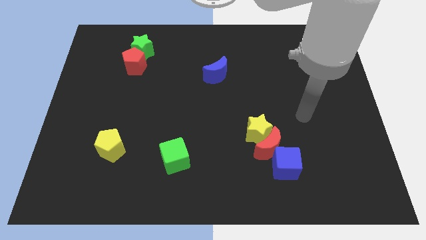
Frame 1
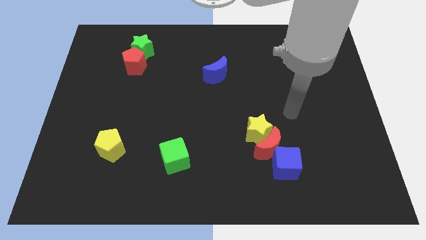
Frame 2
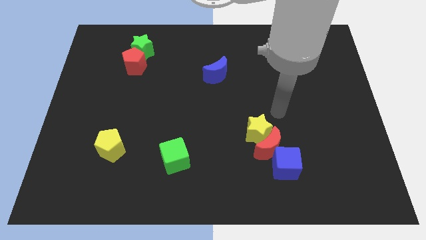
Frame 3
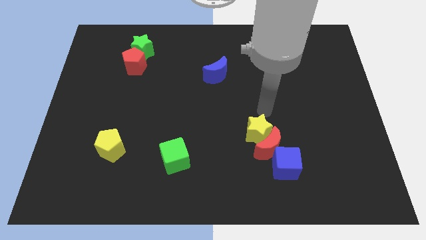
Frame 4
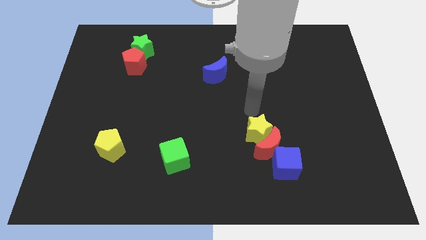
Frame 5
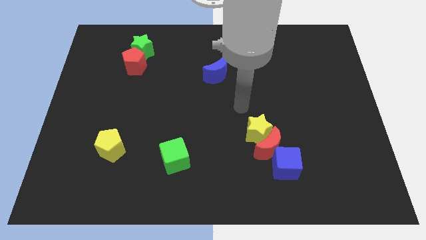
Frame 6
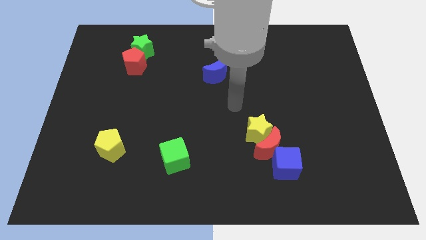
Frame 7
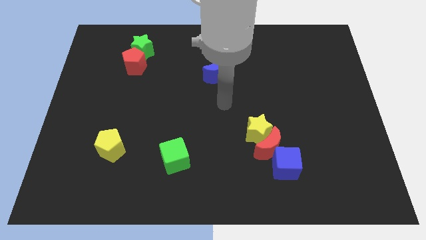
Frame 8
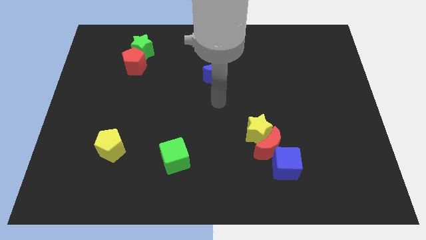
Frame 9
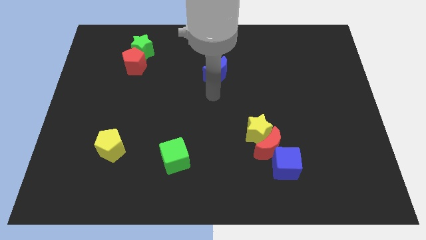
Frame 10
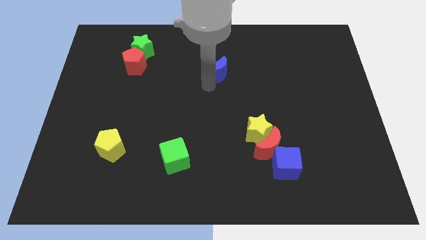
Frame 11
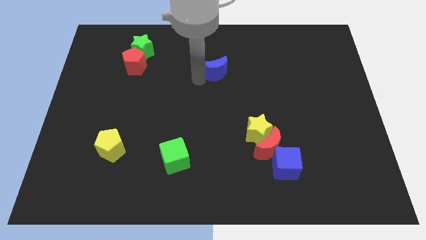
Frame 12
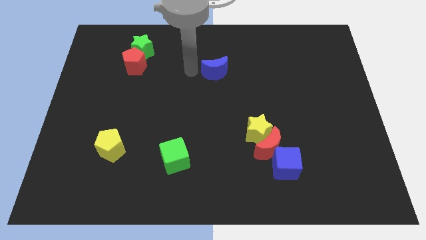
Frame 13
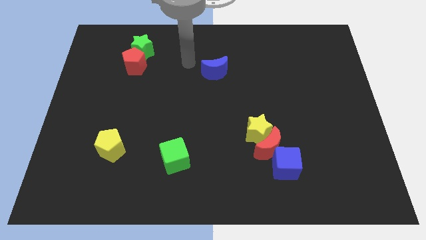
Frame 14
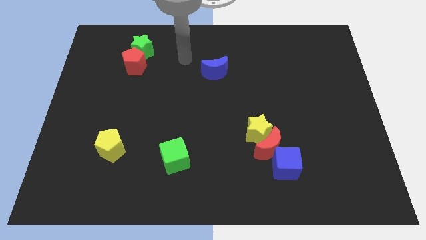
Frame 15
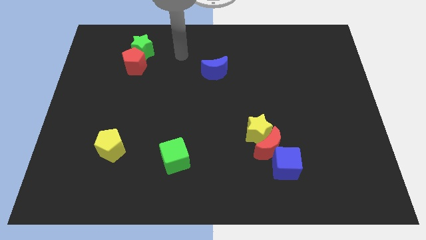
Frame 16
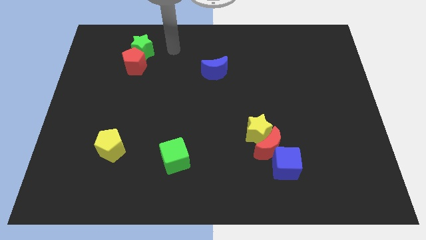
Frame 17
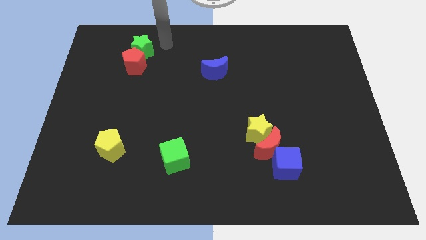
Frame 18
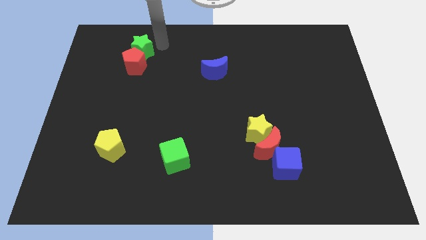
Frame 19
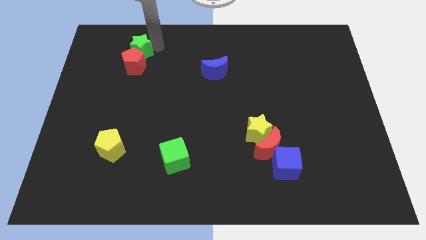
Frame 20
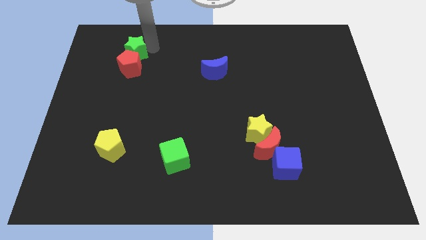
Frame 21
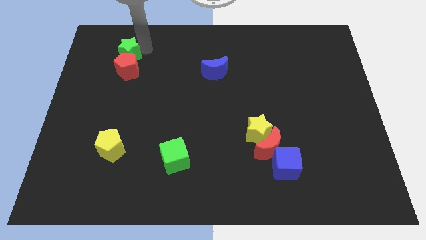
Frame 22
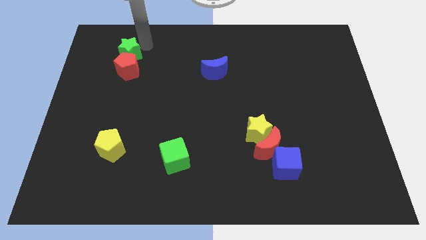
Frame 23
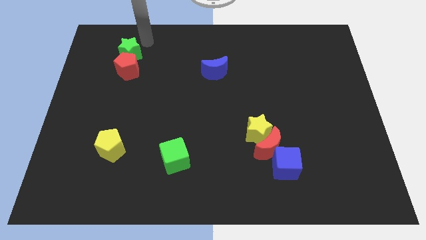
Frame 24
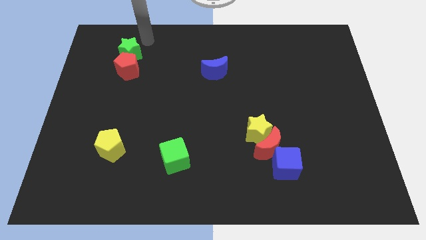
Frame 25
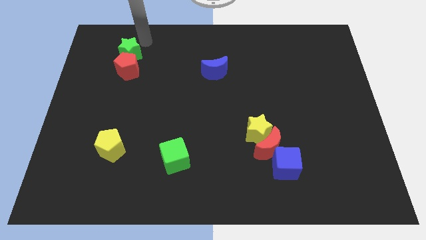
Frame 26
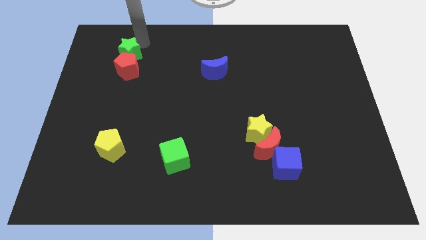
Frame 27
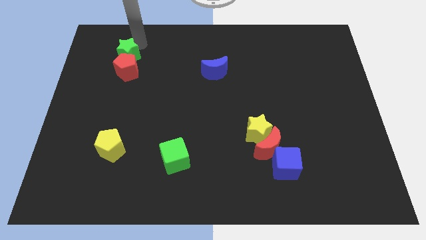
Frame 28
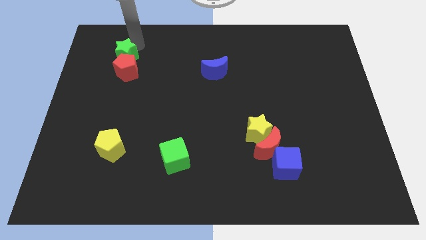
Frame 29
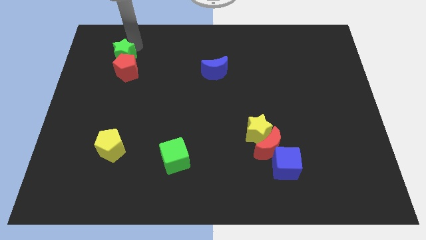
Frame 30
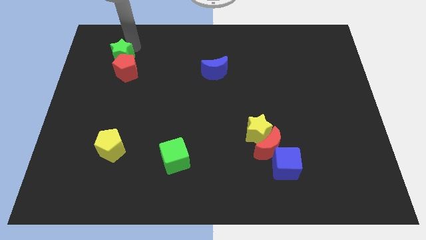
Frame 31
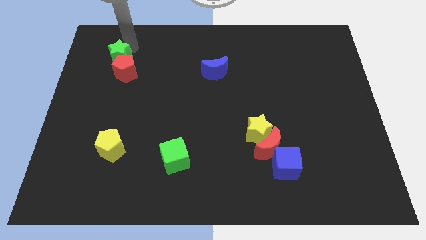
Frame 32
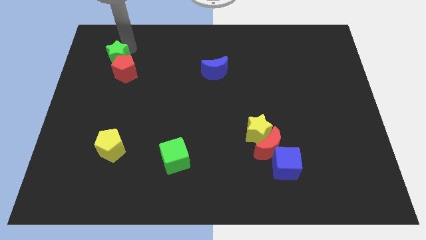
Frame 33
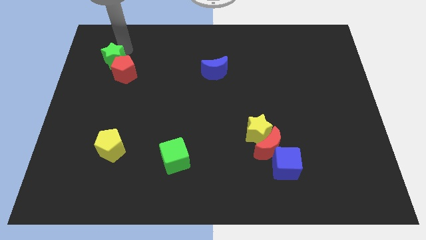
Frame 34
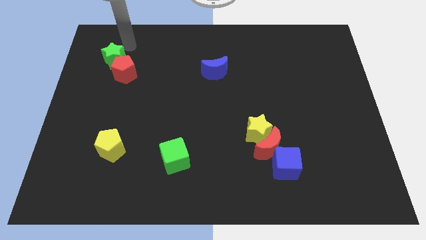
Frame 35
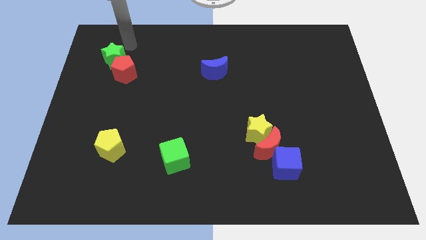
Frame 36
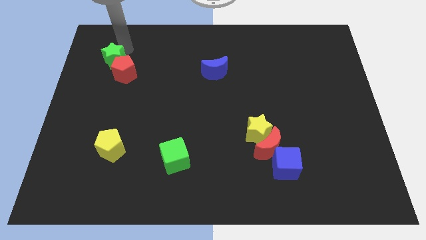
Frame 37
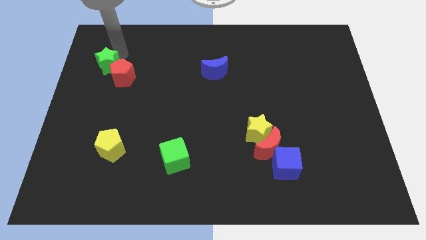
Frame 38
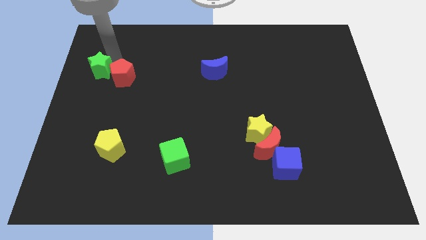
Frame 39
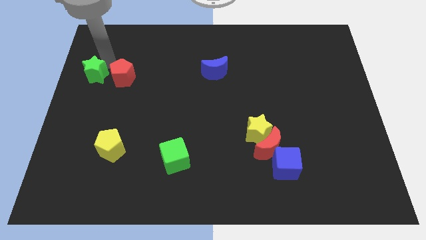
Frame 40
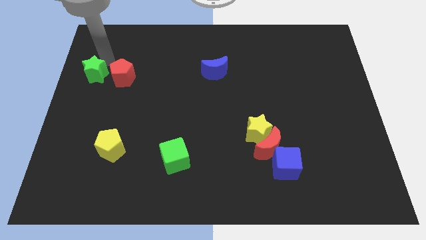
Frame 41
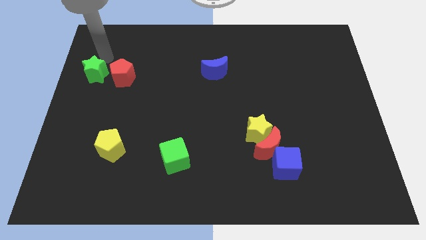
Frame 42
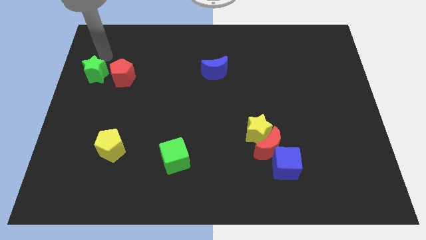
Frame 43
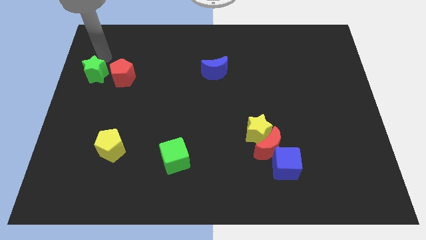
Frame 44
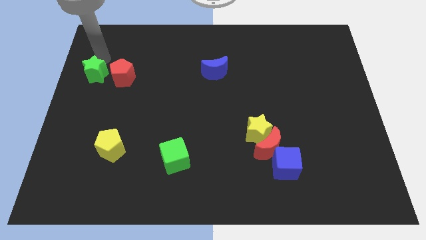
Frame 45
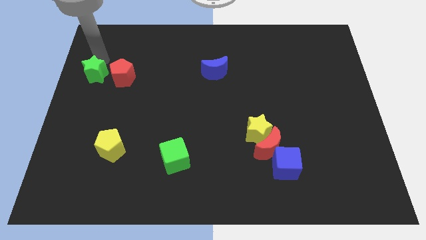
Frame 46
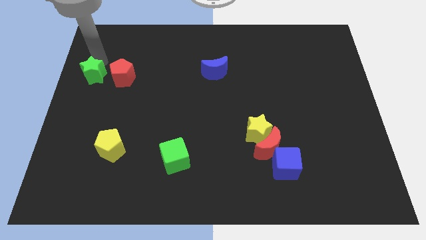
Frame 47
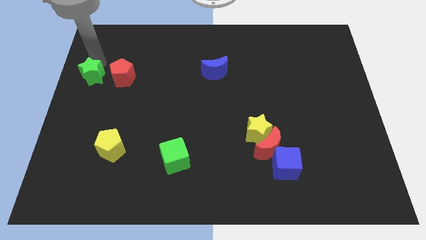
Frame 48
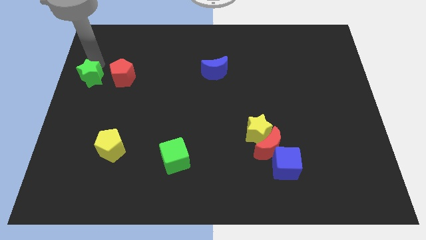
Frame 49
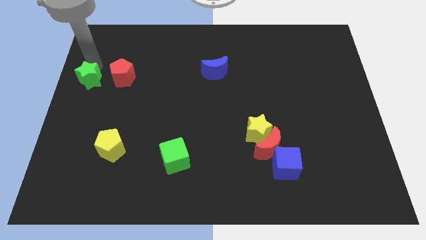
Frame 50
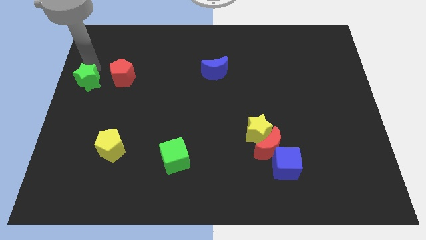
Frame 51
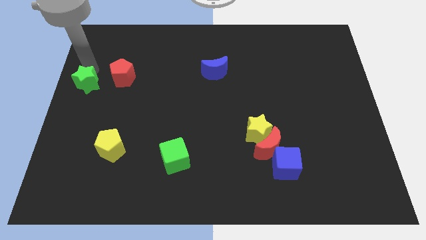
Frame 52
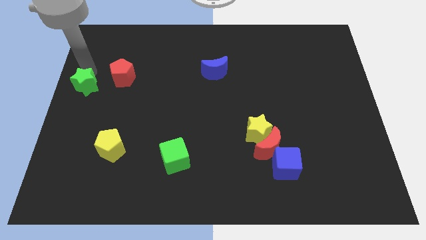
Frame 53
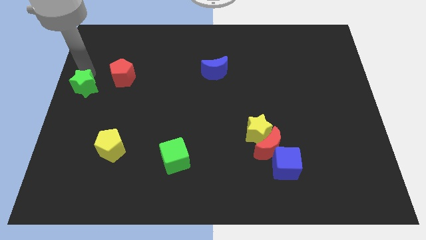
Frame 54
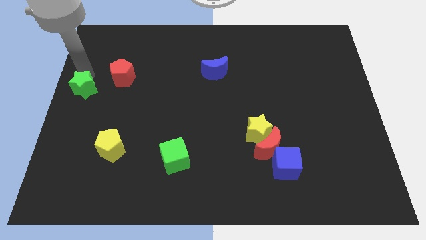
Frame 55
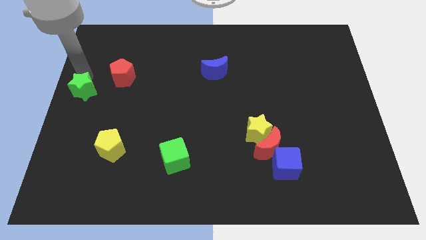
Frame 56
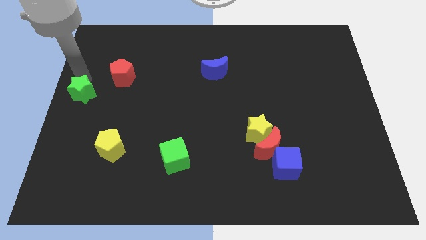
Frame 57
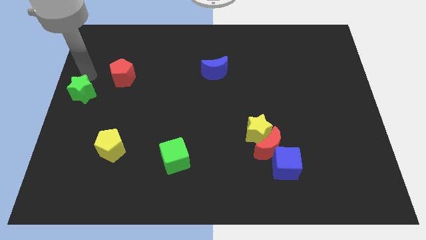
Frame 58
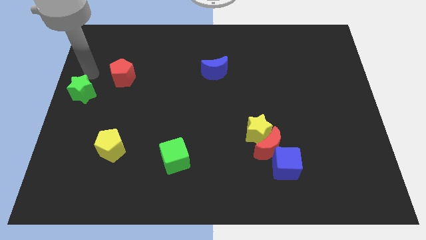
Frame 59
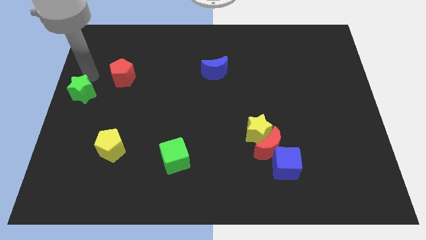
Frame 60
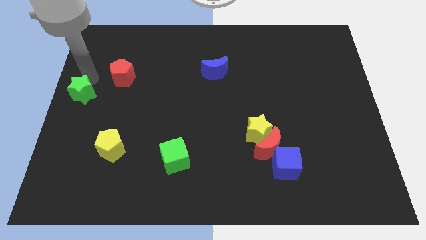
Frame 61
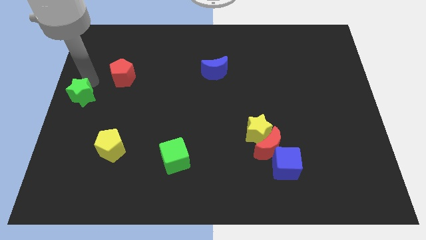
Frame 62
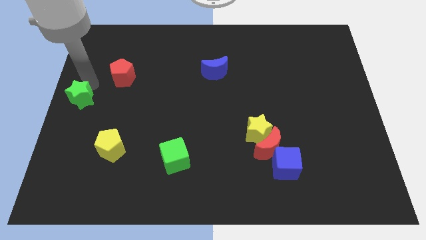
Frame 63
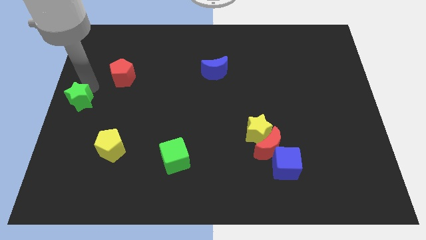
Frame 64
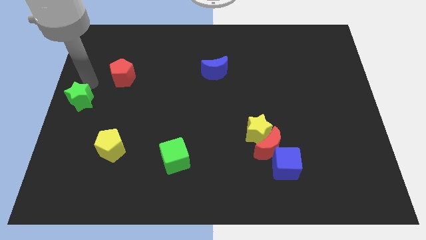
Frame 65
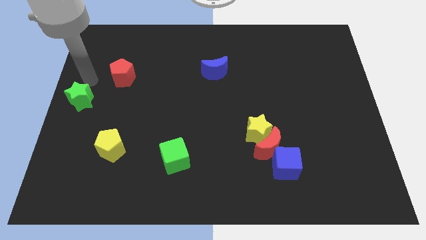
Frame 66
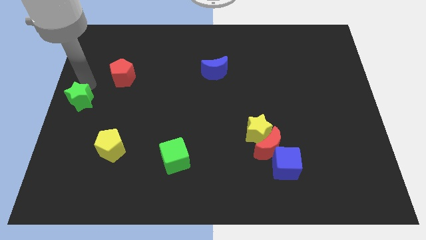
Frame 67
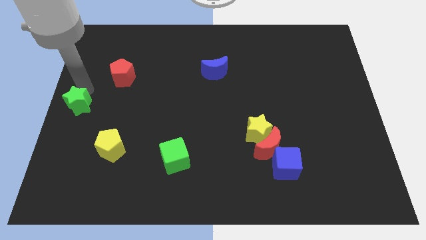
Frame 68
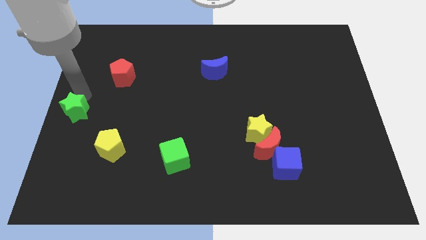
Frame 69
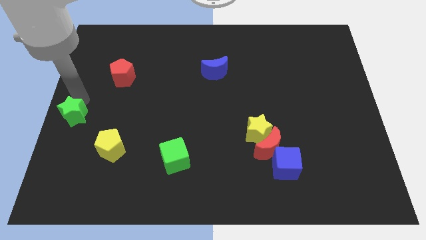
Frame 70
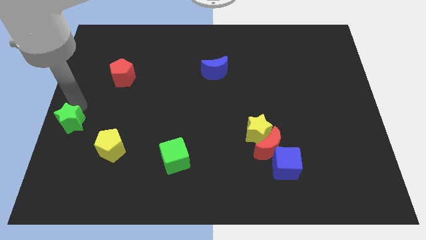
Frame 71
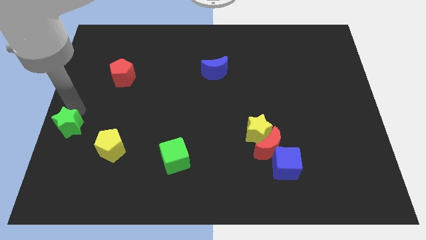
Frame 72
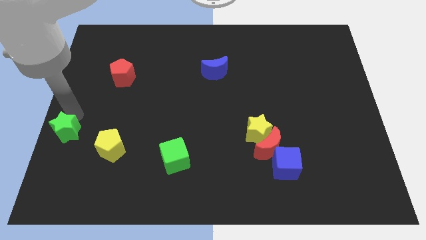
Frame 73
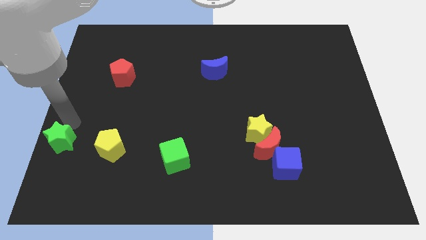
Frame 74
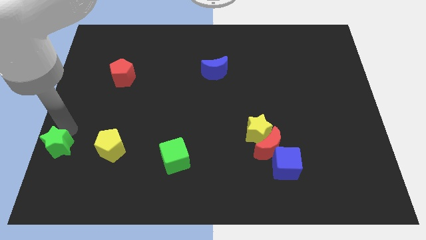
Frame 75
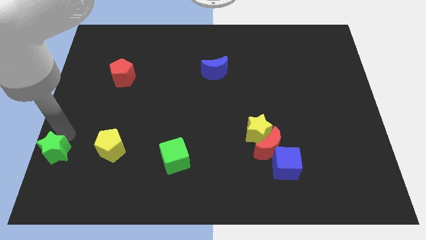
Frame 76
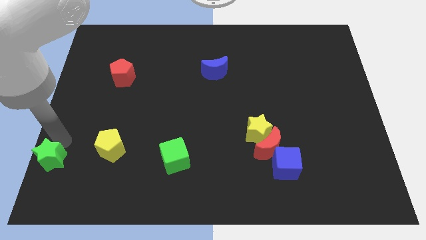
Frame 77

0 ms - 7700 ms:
move the green star to the bottom left

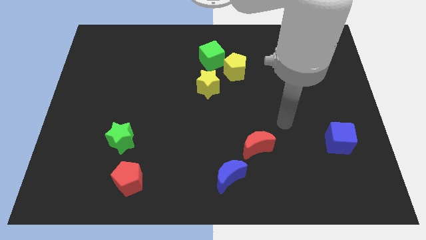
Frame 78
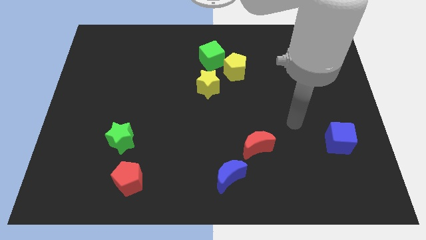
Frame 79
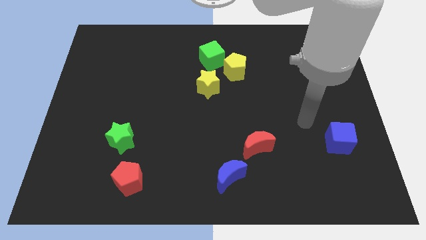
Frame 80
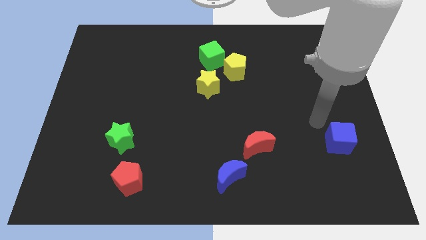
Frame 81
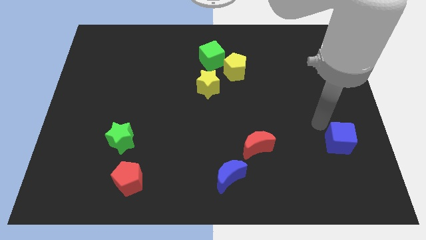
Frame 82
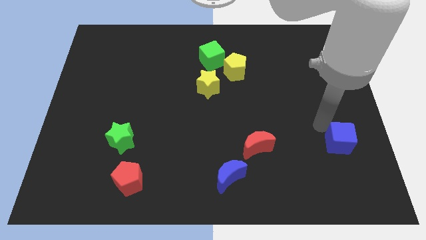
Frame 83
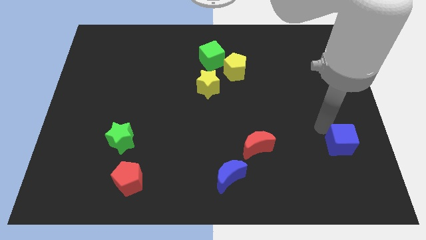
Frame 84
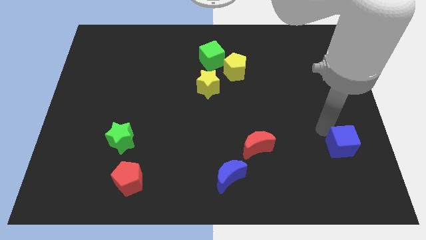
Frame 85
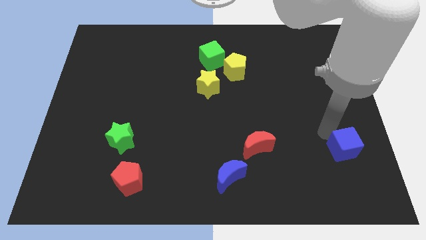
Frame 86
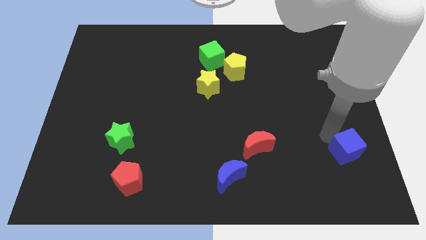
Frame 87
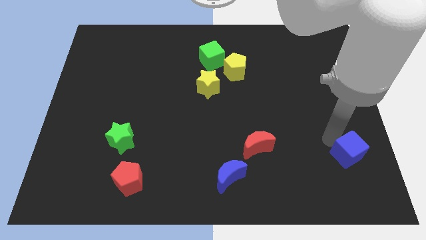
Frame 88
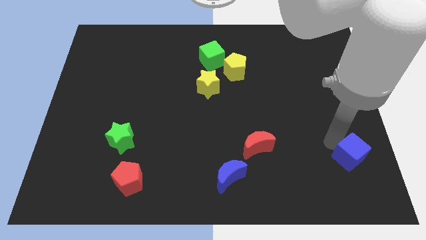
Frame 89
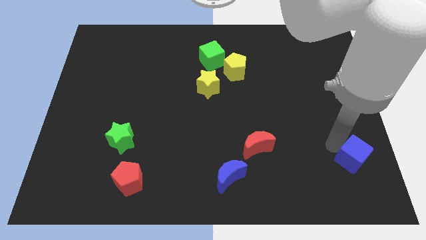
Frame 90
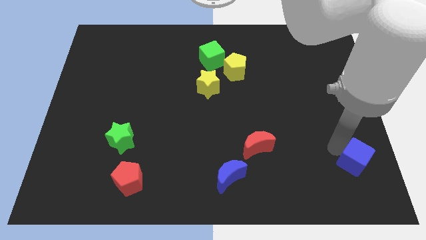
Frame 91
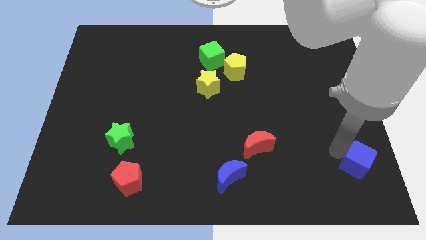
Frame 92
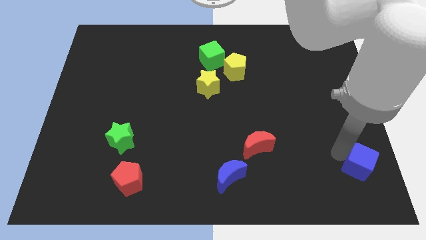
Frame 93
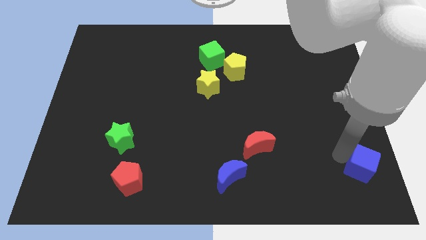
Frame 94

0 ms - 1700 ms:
slide the blue cube to the lower right corner
